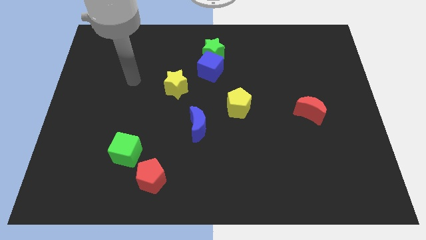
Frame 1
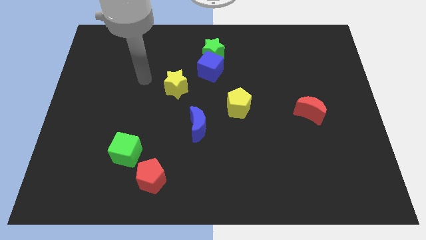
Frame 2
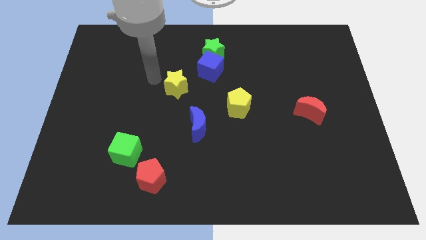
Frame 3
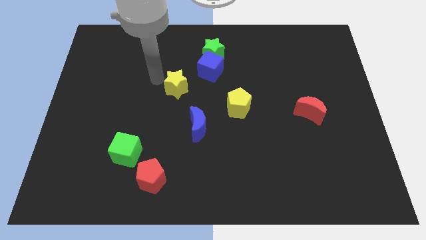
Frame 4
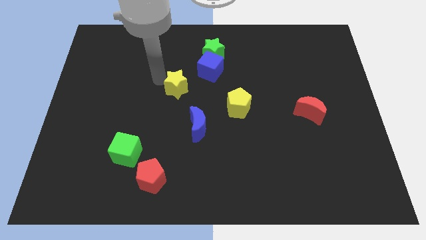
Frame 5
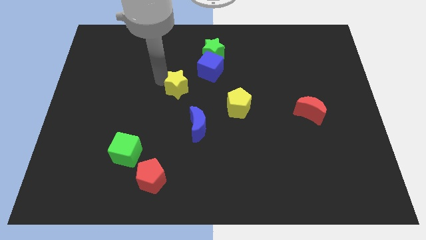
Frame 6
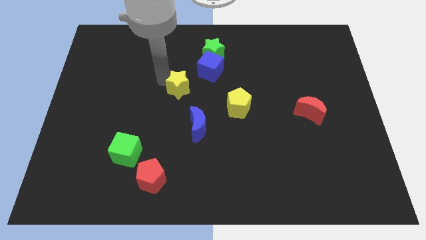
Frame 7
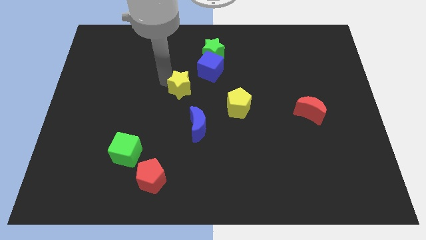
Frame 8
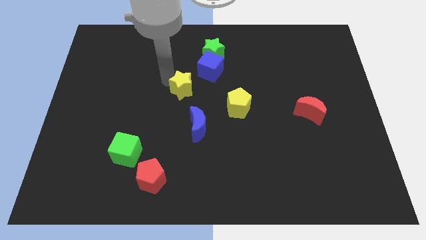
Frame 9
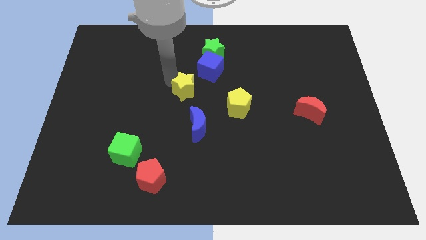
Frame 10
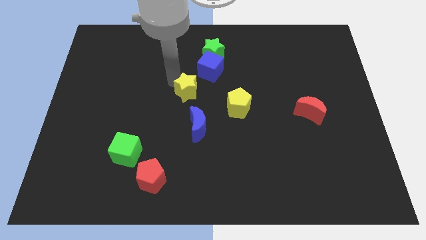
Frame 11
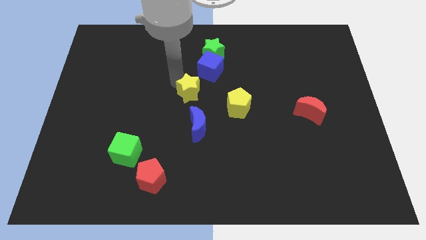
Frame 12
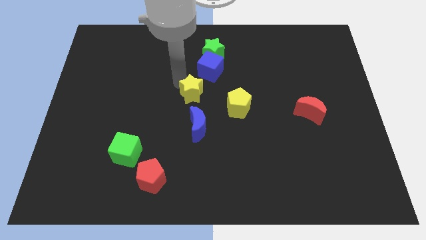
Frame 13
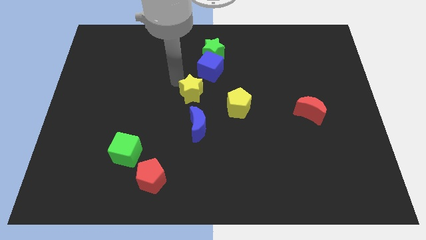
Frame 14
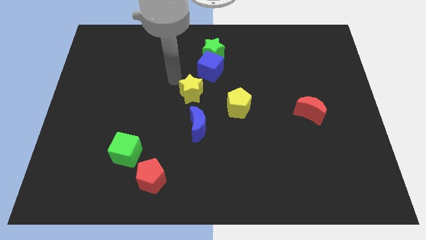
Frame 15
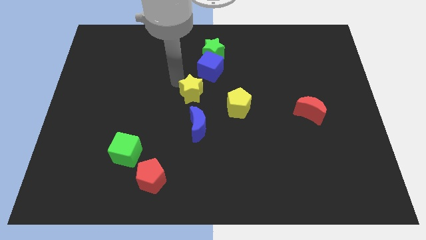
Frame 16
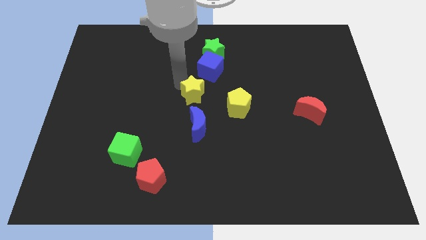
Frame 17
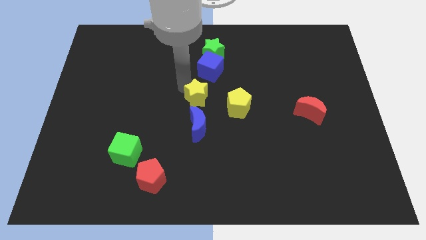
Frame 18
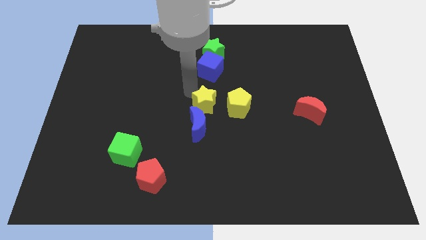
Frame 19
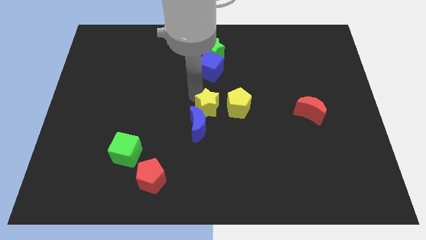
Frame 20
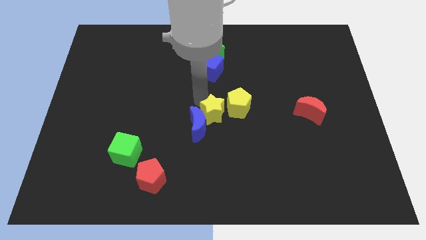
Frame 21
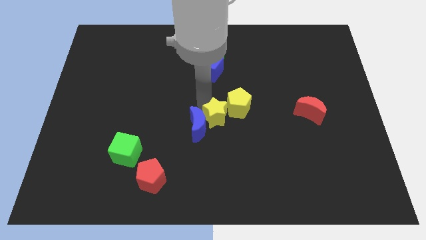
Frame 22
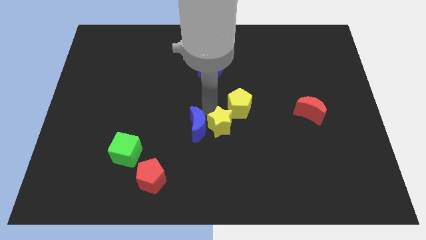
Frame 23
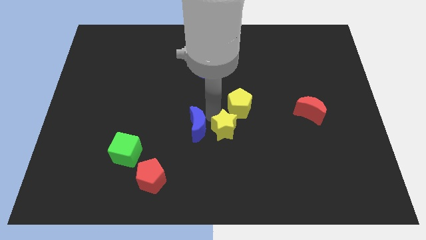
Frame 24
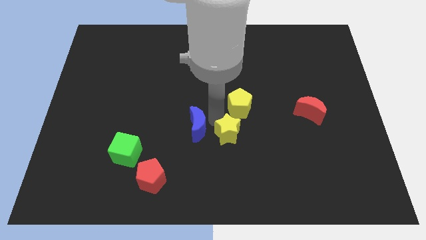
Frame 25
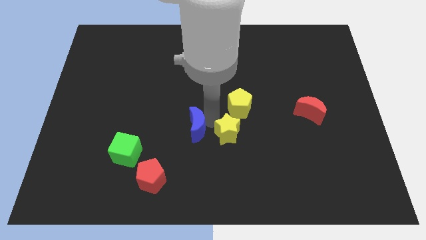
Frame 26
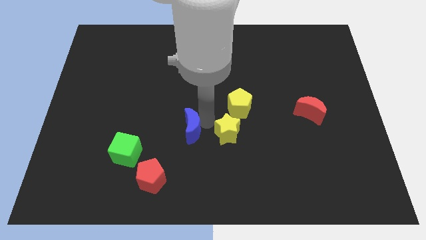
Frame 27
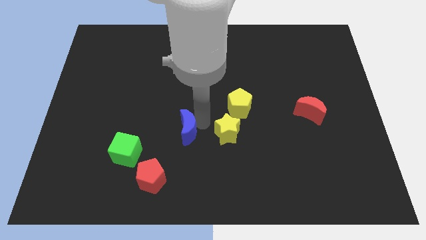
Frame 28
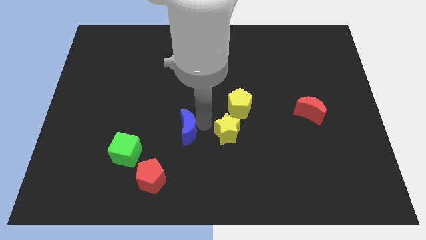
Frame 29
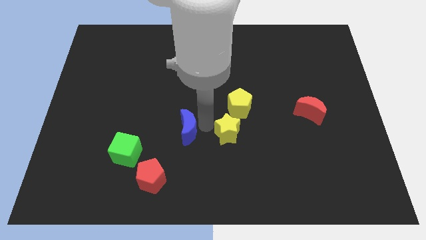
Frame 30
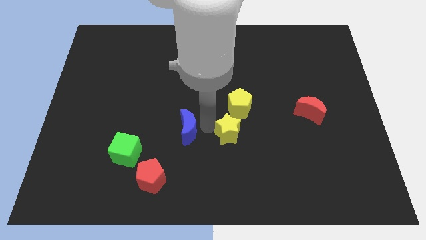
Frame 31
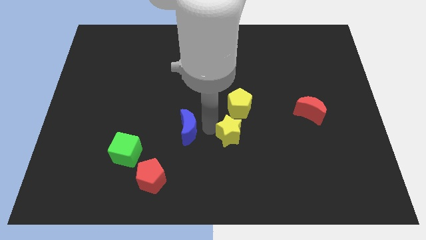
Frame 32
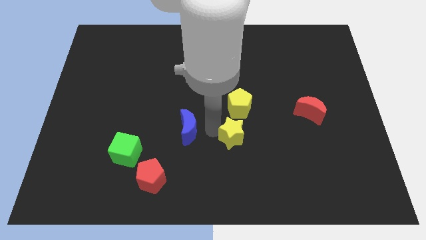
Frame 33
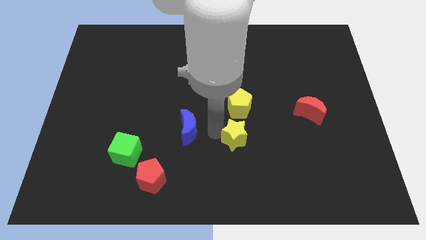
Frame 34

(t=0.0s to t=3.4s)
push the yellow star downwards and then right

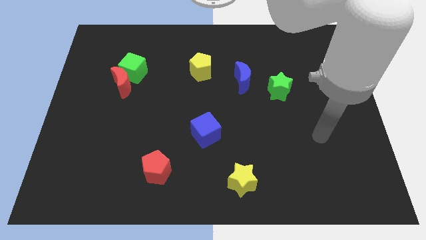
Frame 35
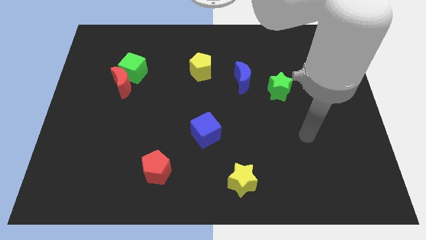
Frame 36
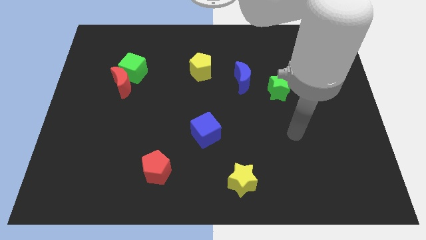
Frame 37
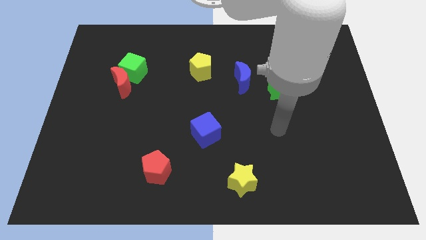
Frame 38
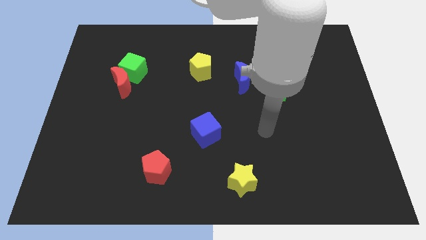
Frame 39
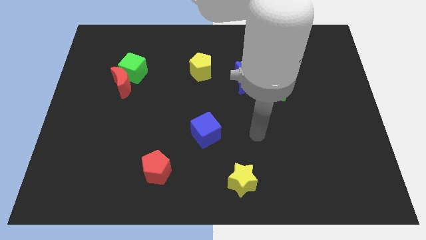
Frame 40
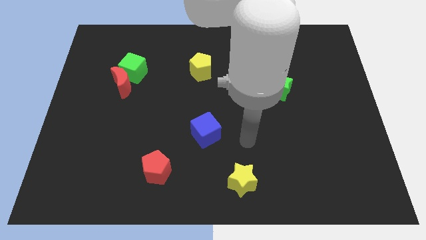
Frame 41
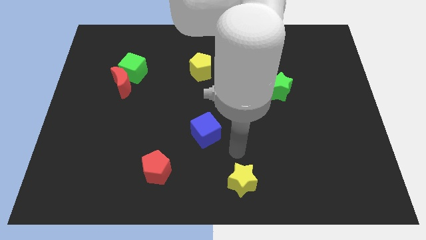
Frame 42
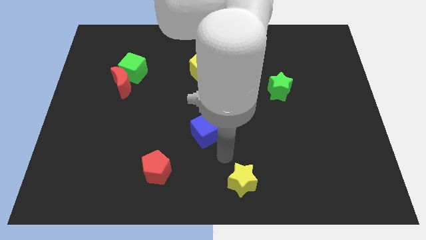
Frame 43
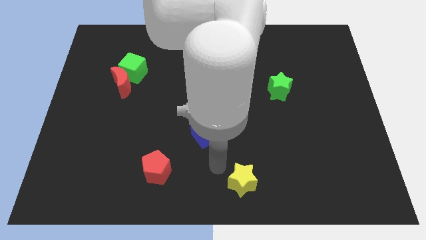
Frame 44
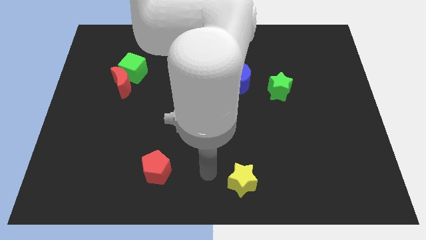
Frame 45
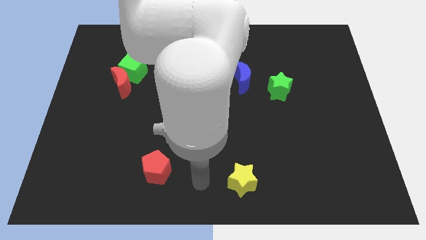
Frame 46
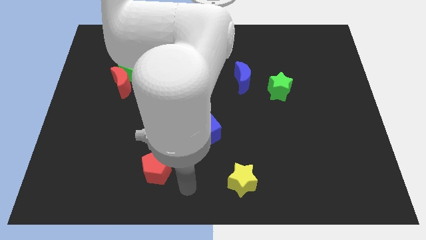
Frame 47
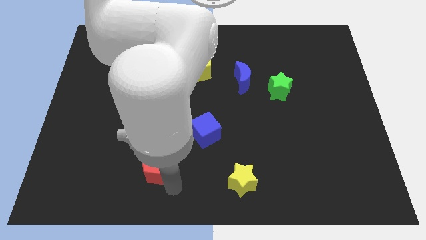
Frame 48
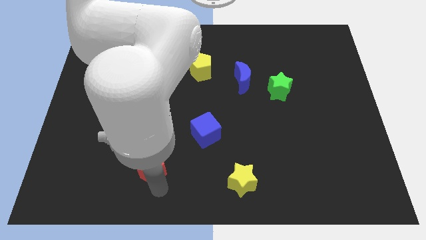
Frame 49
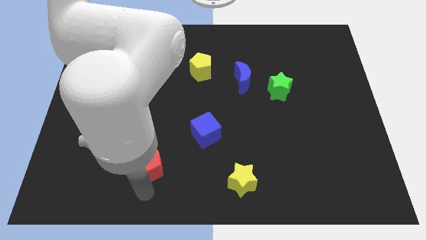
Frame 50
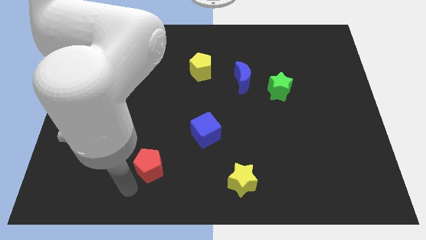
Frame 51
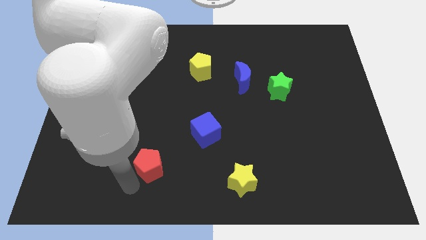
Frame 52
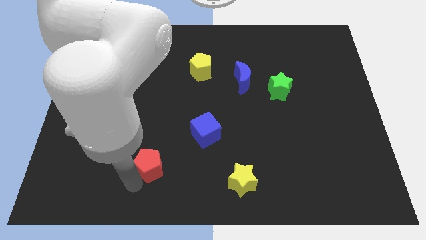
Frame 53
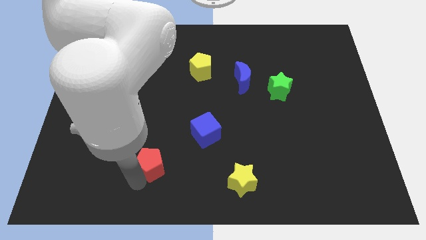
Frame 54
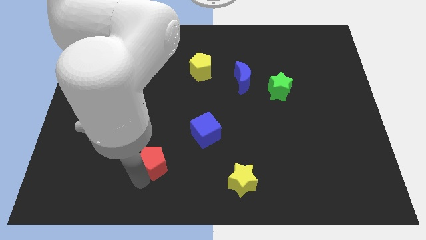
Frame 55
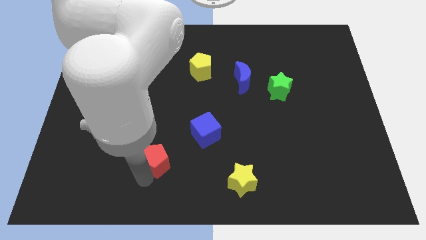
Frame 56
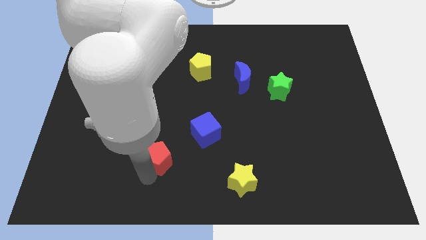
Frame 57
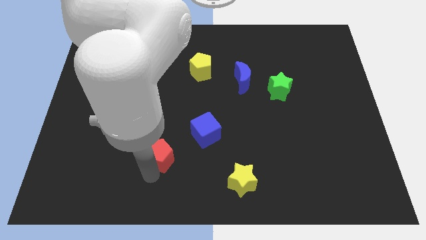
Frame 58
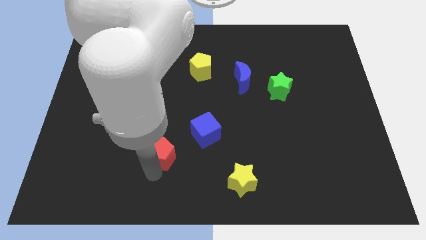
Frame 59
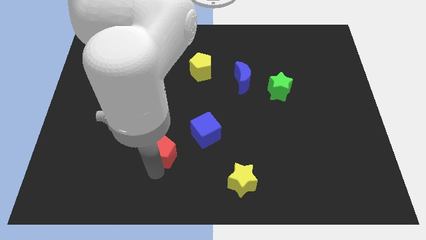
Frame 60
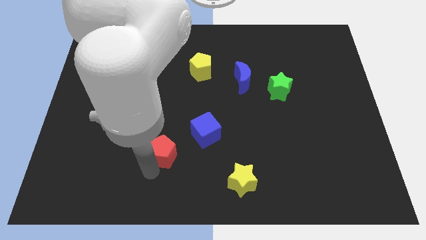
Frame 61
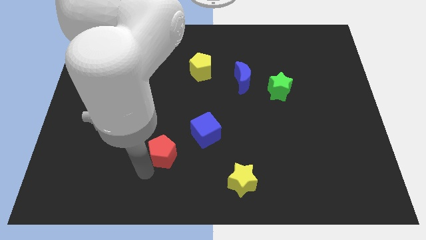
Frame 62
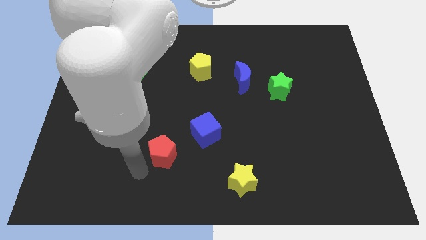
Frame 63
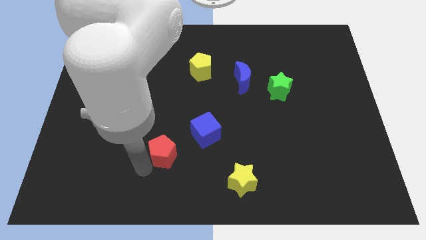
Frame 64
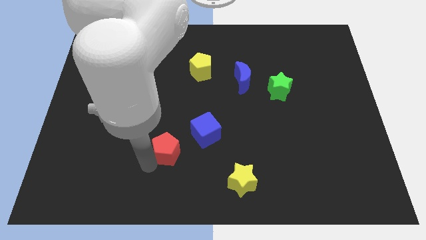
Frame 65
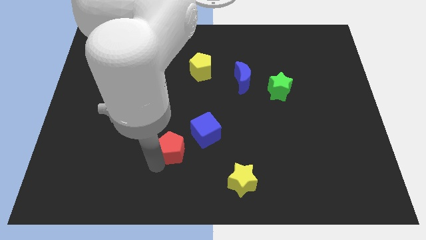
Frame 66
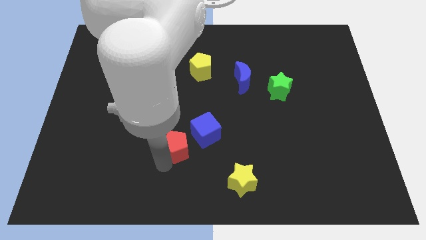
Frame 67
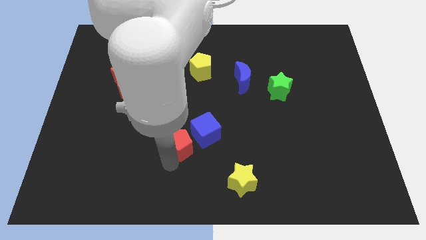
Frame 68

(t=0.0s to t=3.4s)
slide the red pentagon slightly up and to the right

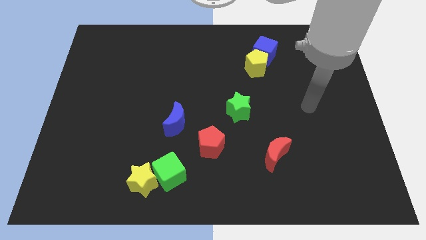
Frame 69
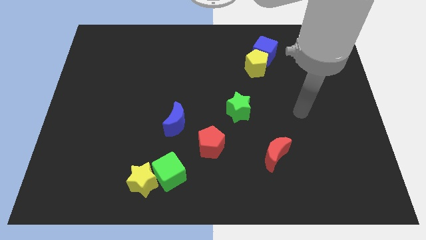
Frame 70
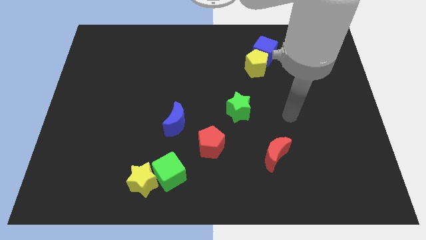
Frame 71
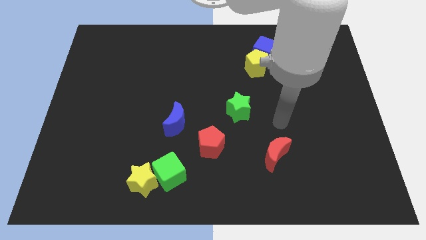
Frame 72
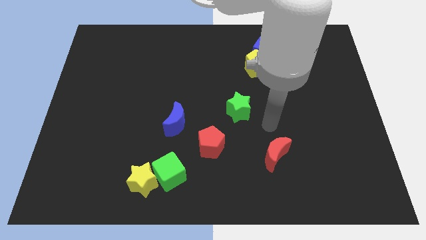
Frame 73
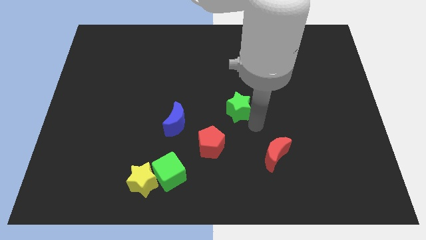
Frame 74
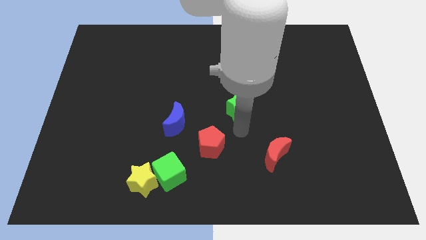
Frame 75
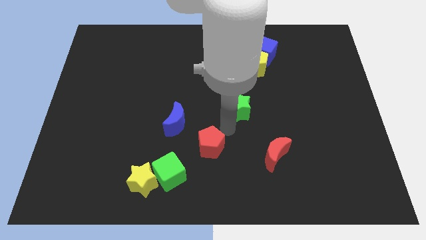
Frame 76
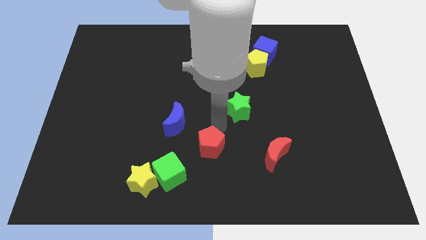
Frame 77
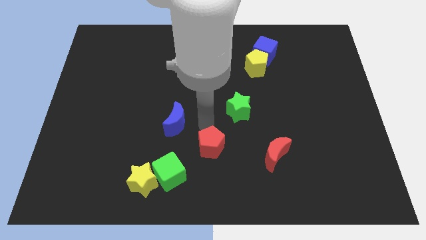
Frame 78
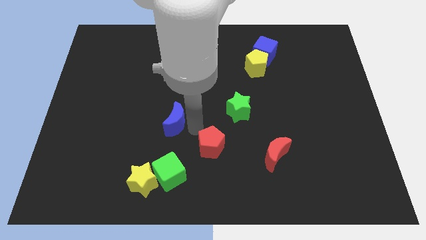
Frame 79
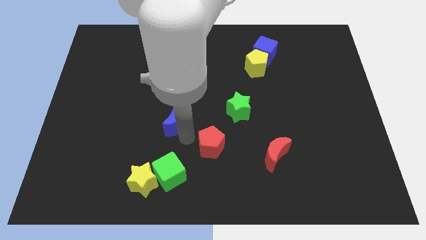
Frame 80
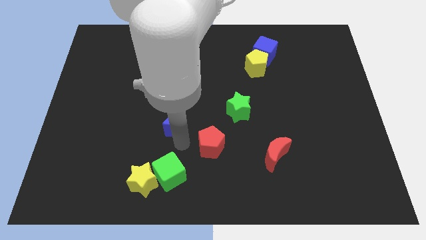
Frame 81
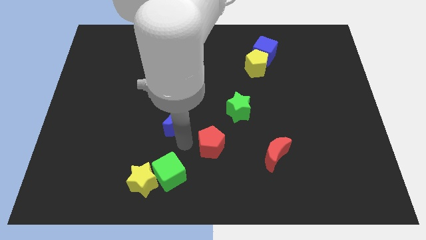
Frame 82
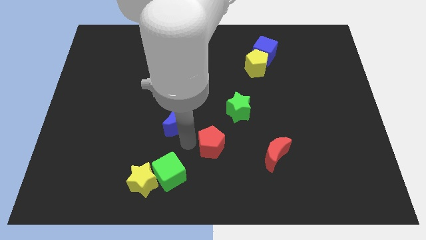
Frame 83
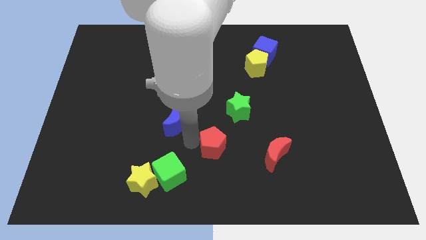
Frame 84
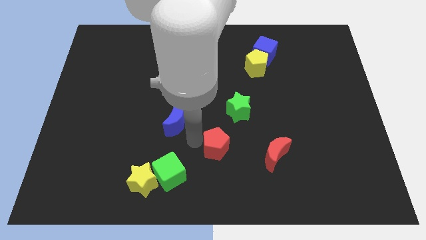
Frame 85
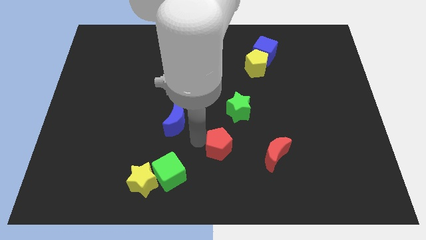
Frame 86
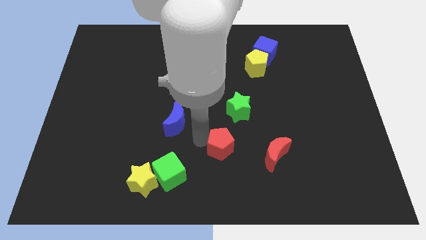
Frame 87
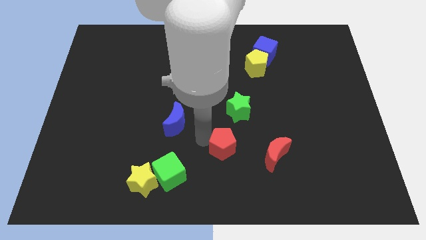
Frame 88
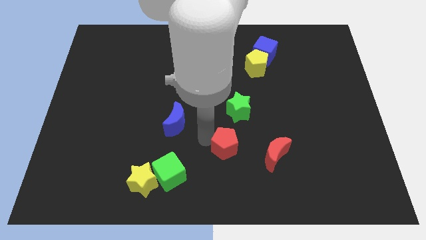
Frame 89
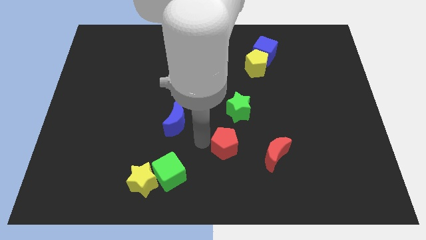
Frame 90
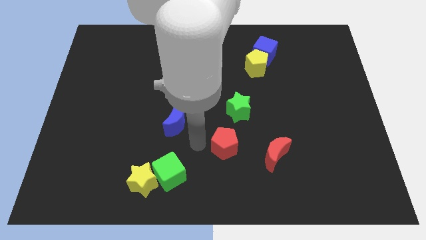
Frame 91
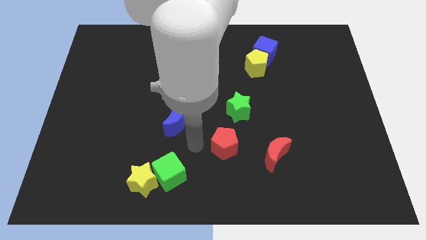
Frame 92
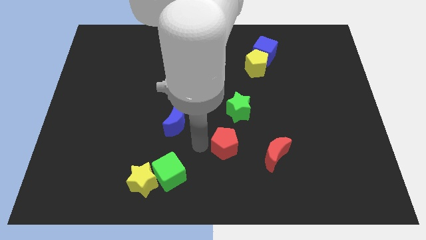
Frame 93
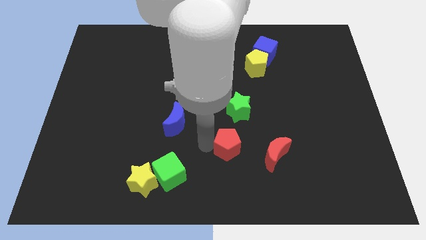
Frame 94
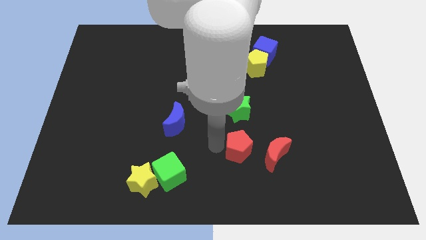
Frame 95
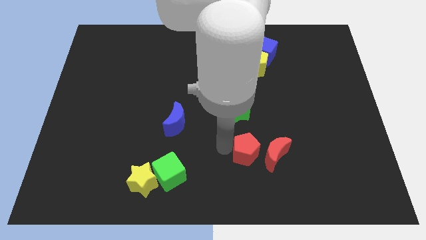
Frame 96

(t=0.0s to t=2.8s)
push the red pentagon a bit to the right
